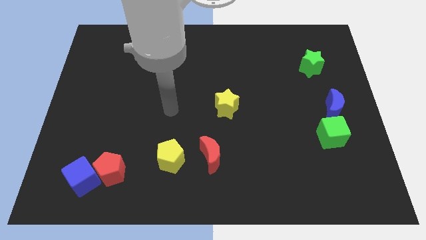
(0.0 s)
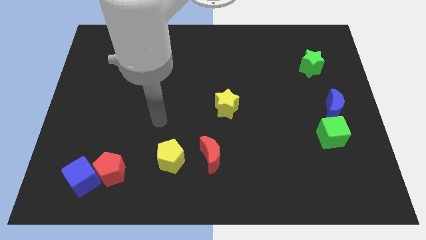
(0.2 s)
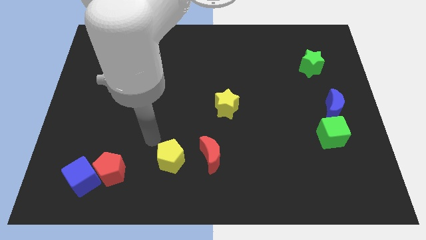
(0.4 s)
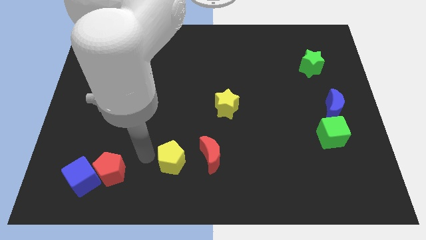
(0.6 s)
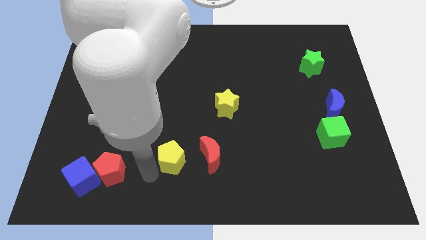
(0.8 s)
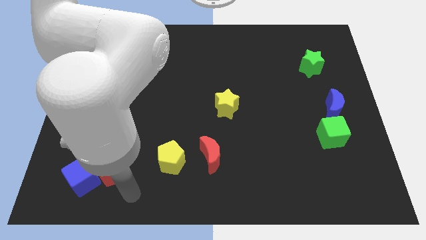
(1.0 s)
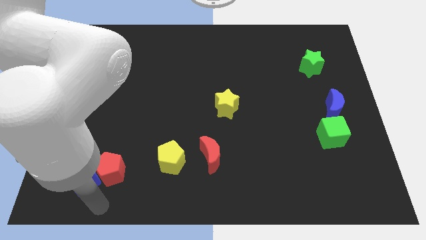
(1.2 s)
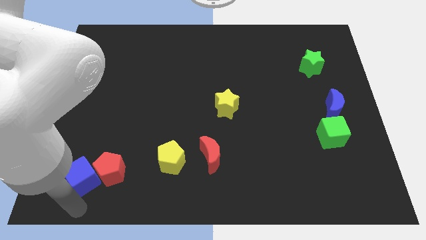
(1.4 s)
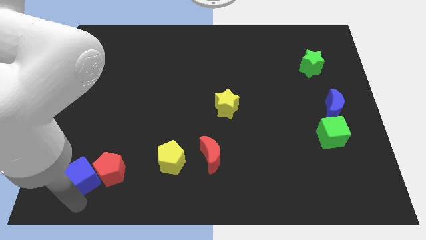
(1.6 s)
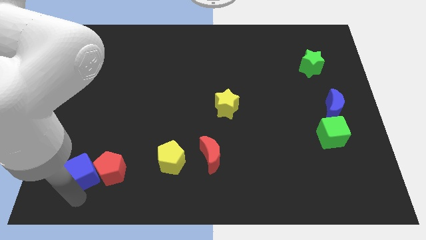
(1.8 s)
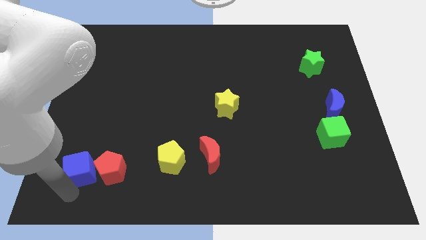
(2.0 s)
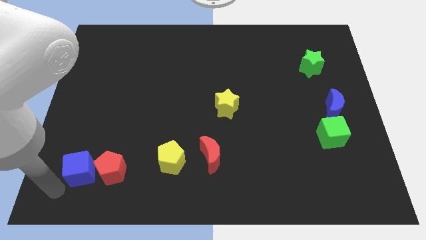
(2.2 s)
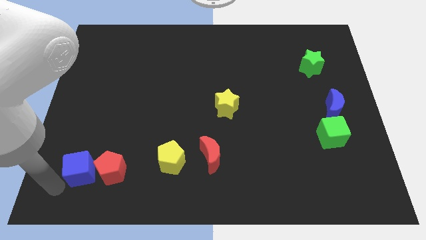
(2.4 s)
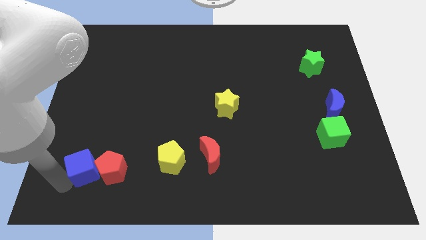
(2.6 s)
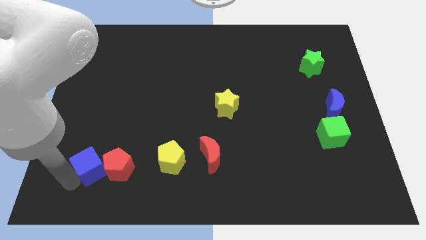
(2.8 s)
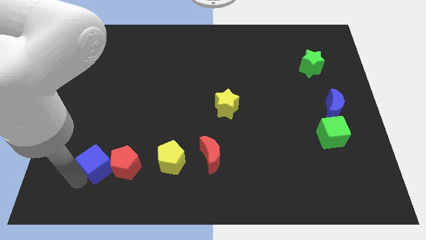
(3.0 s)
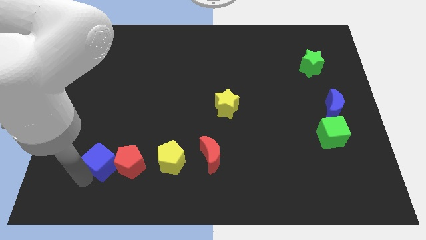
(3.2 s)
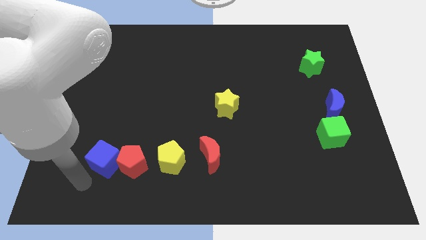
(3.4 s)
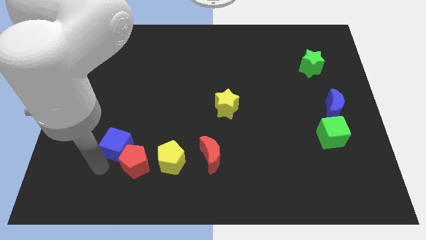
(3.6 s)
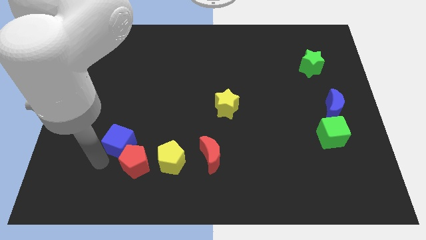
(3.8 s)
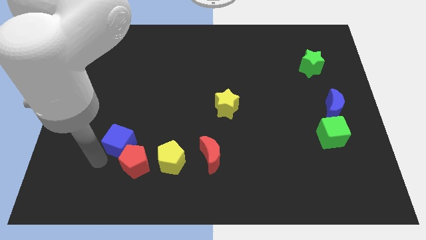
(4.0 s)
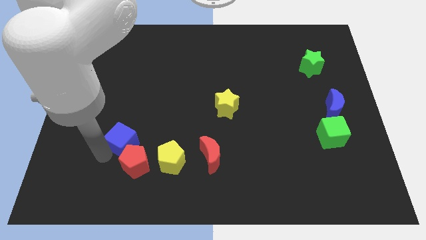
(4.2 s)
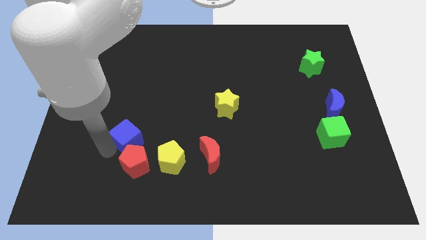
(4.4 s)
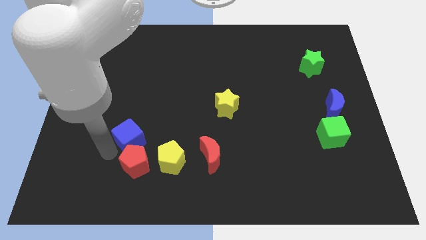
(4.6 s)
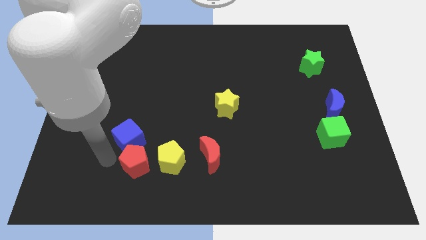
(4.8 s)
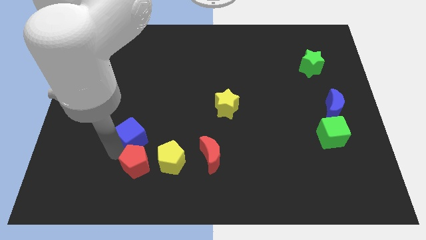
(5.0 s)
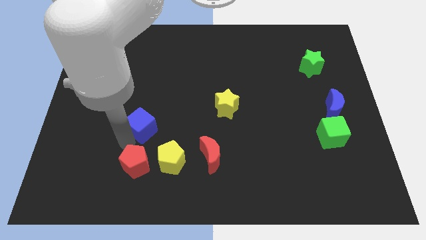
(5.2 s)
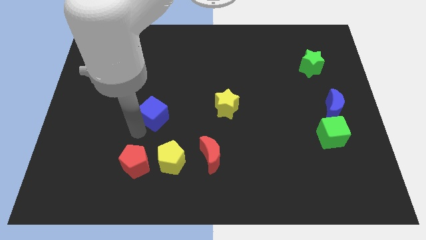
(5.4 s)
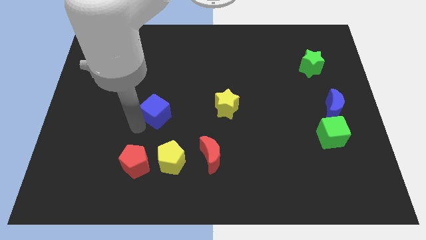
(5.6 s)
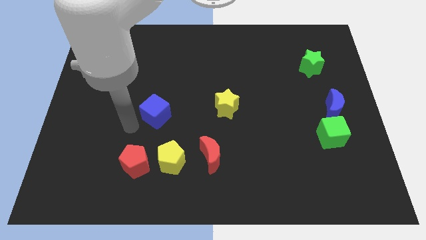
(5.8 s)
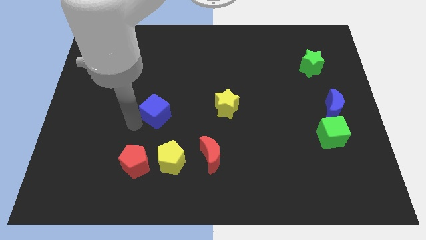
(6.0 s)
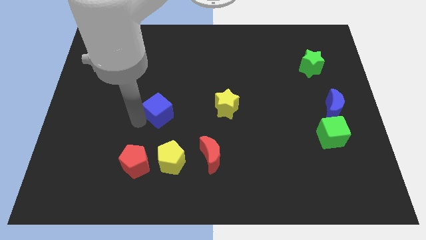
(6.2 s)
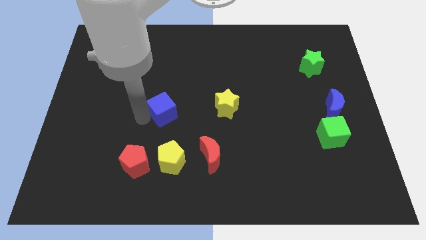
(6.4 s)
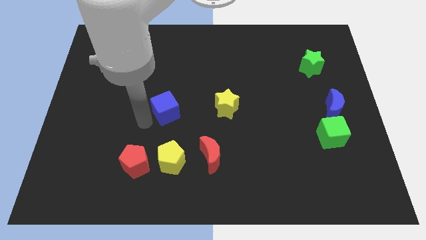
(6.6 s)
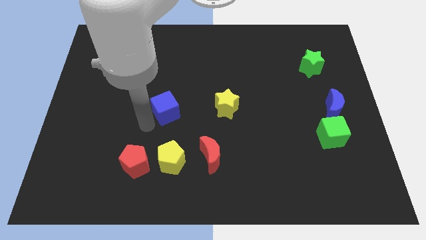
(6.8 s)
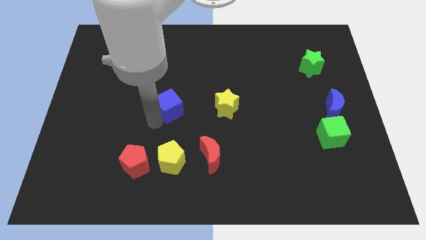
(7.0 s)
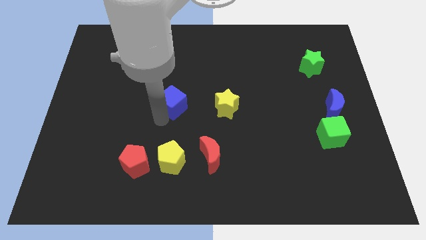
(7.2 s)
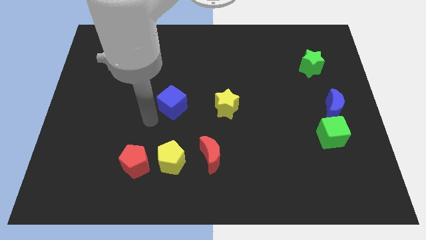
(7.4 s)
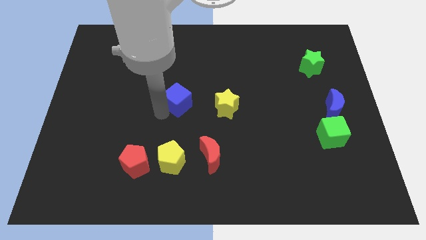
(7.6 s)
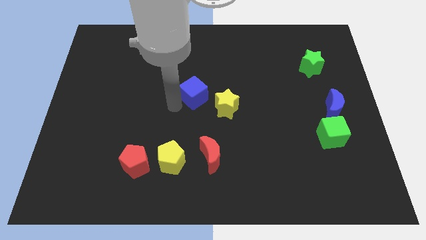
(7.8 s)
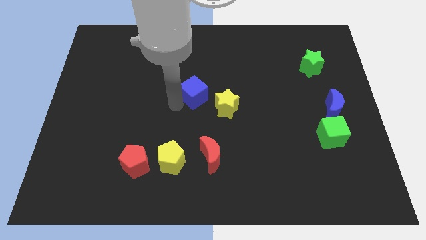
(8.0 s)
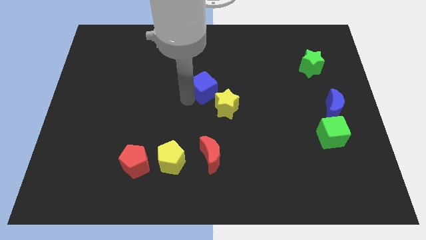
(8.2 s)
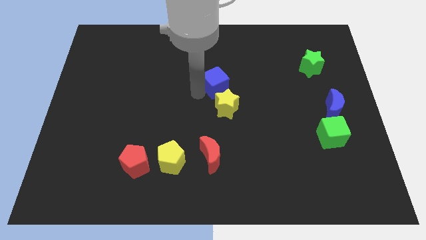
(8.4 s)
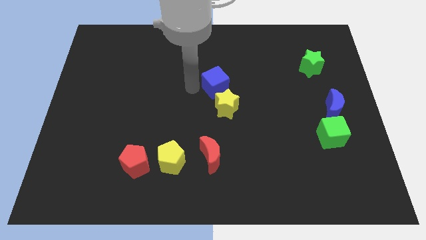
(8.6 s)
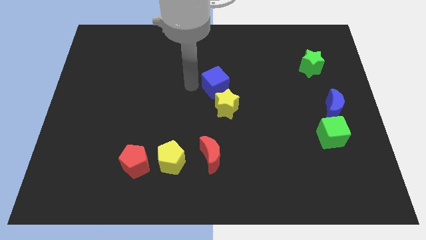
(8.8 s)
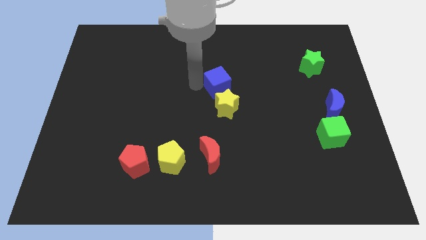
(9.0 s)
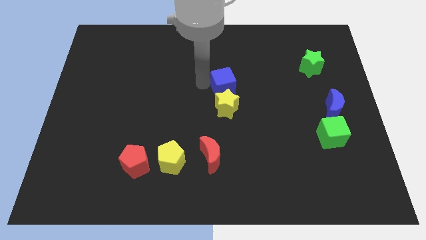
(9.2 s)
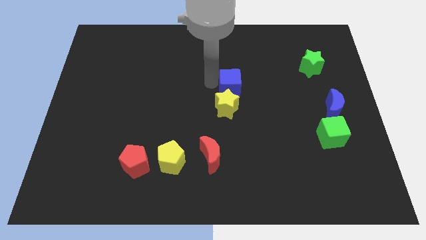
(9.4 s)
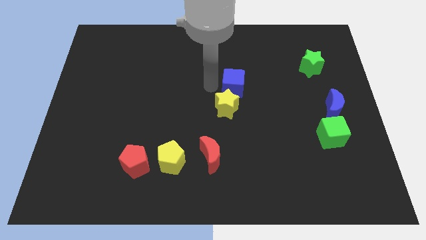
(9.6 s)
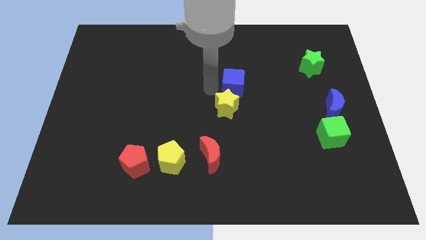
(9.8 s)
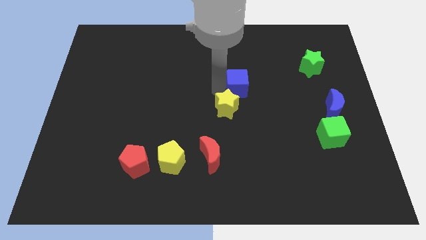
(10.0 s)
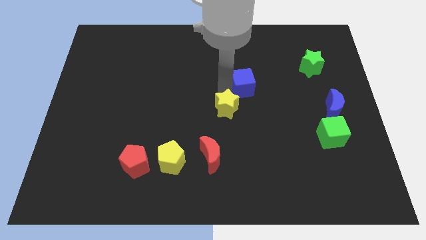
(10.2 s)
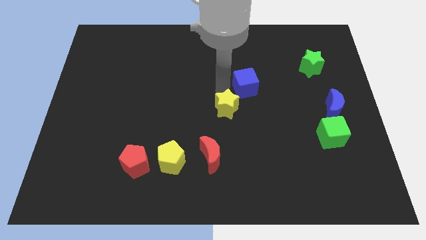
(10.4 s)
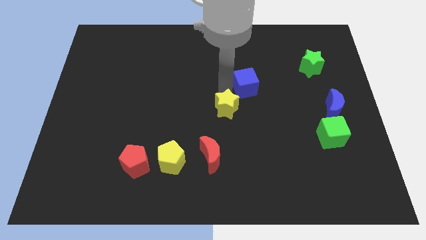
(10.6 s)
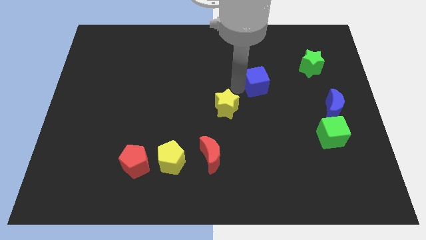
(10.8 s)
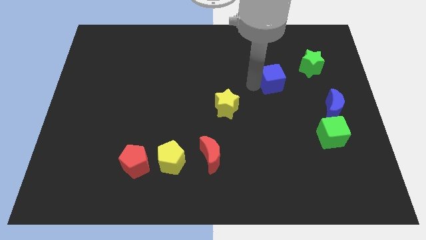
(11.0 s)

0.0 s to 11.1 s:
put the blue cube to the bottom left side of the green star
